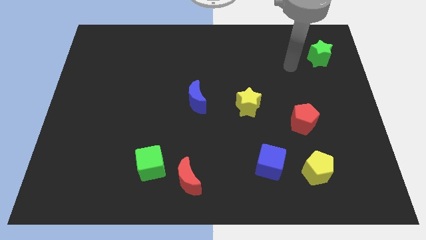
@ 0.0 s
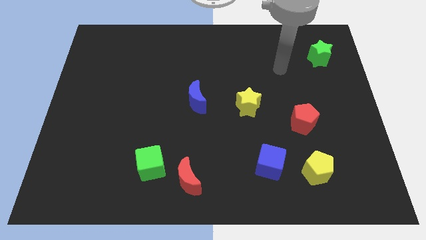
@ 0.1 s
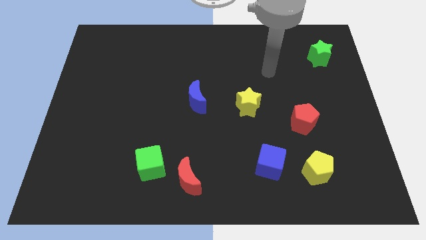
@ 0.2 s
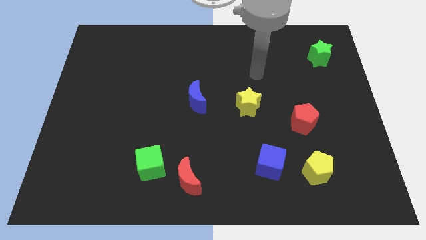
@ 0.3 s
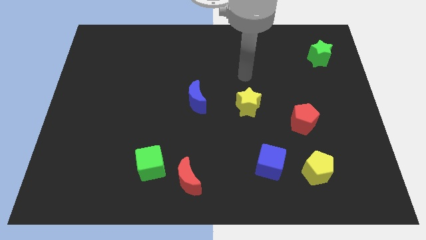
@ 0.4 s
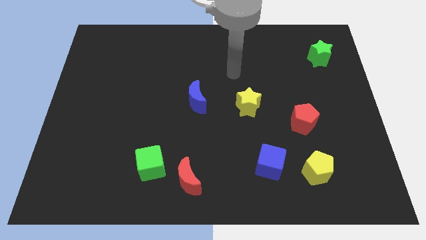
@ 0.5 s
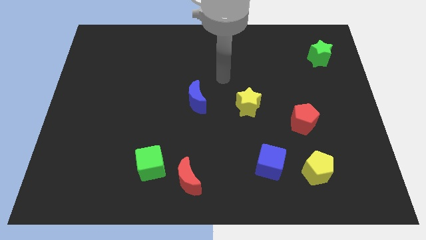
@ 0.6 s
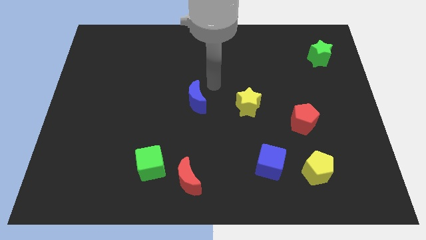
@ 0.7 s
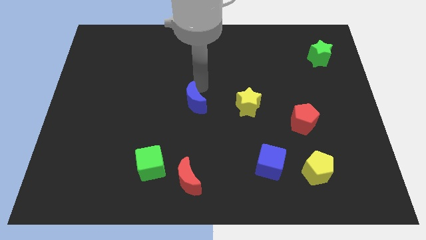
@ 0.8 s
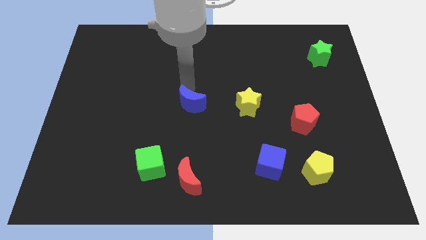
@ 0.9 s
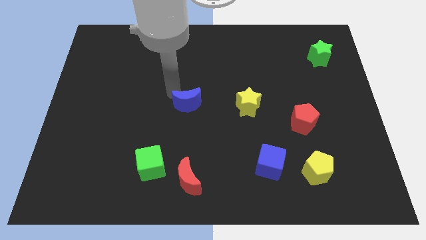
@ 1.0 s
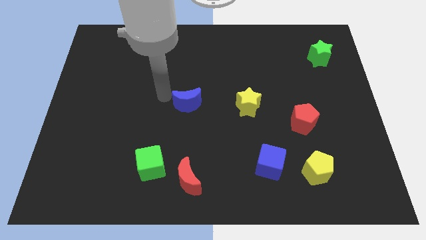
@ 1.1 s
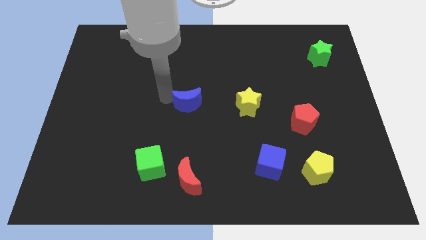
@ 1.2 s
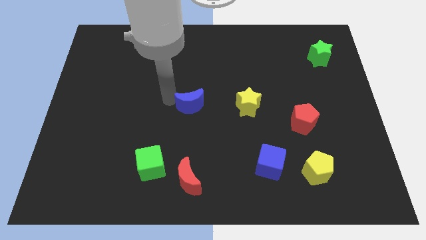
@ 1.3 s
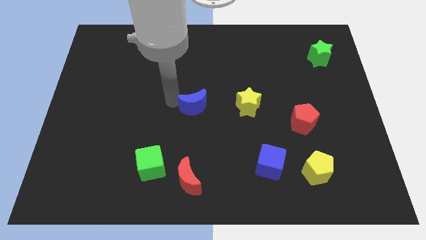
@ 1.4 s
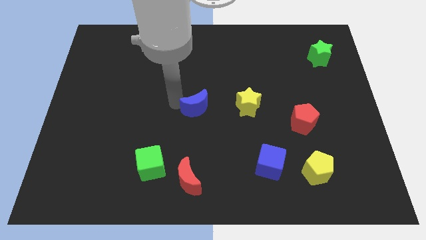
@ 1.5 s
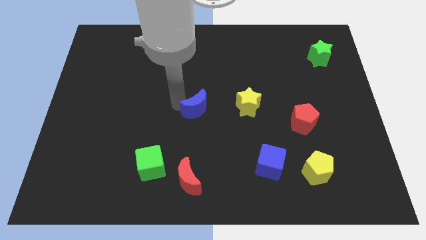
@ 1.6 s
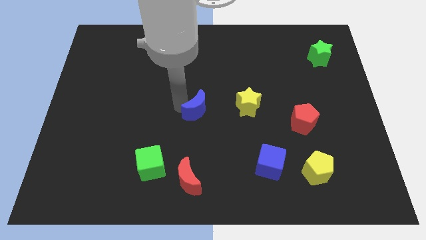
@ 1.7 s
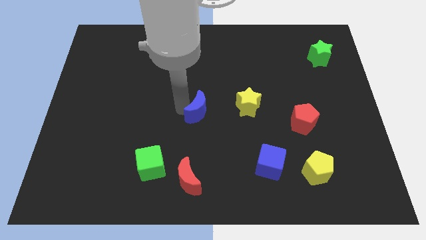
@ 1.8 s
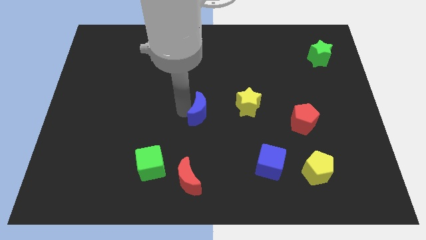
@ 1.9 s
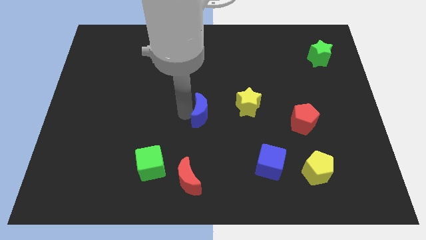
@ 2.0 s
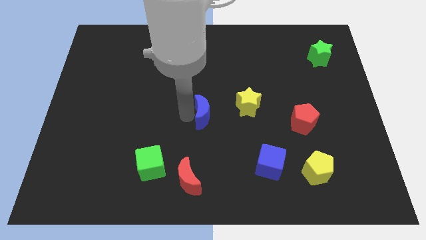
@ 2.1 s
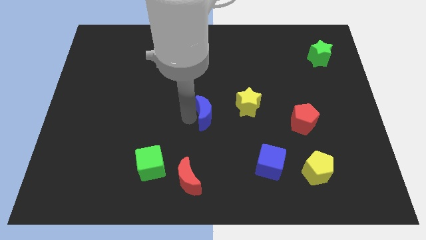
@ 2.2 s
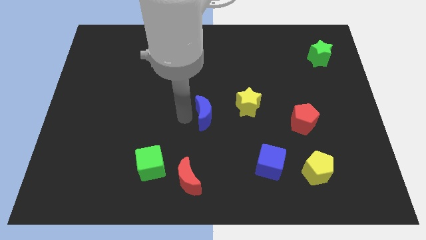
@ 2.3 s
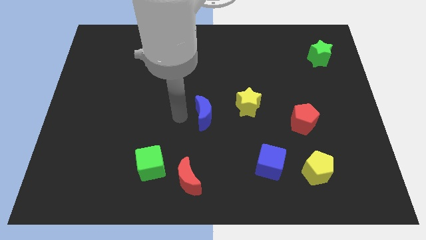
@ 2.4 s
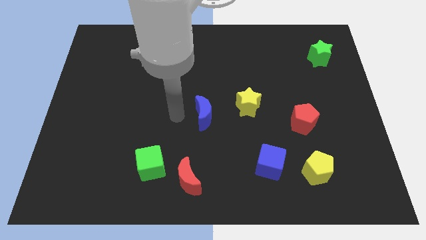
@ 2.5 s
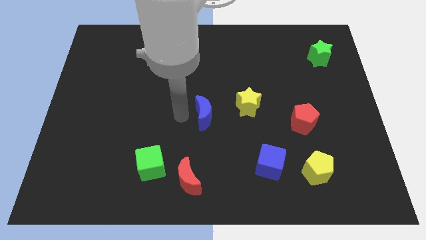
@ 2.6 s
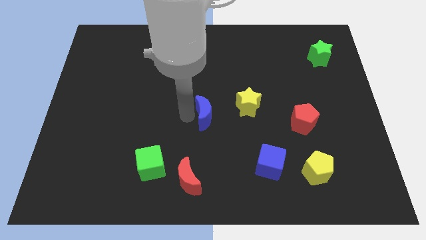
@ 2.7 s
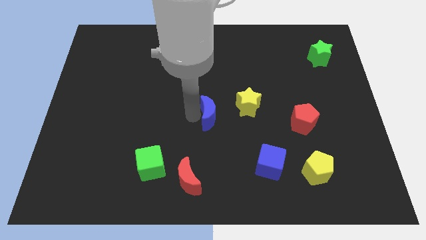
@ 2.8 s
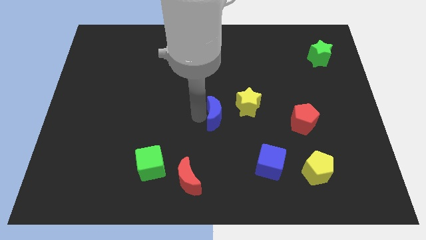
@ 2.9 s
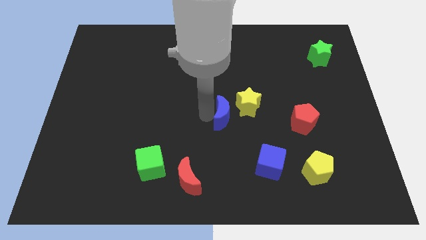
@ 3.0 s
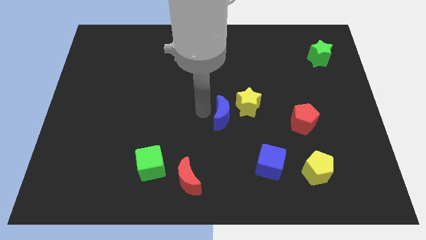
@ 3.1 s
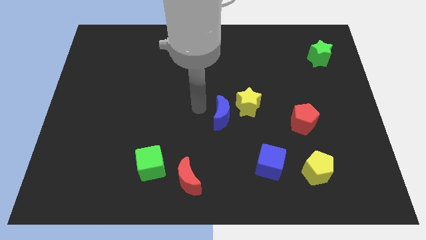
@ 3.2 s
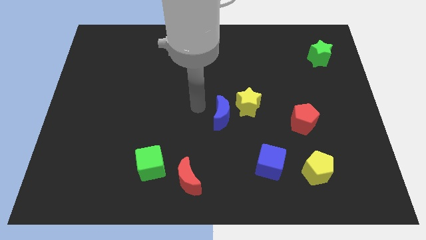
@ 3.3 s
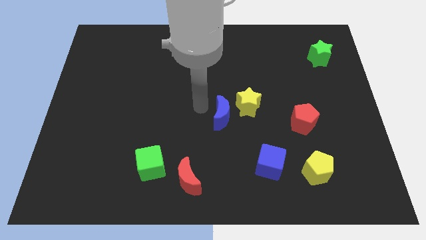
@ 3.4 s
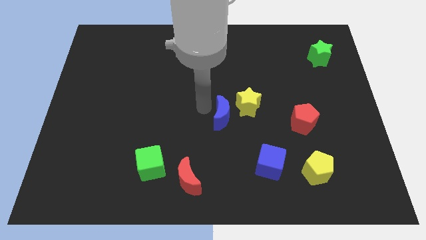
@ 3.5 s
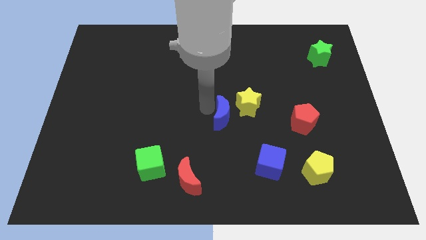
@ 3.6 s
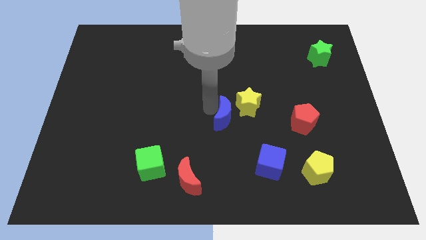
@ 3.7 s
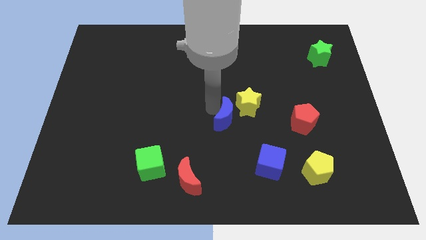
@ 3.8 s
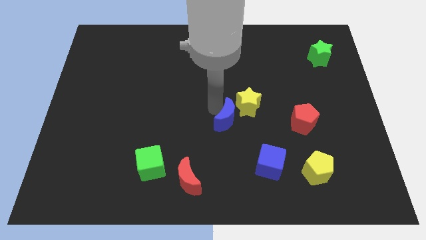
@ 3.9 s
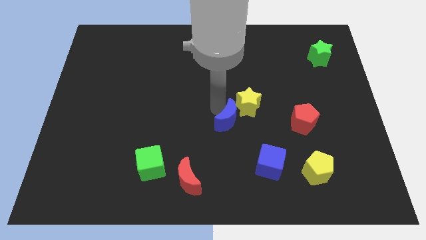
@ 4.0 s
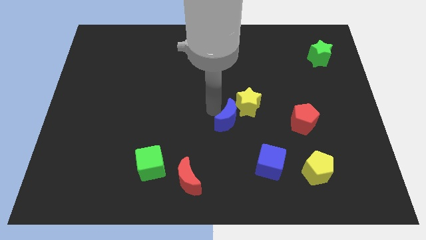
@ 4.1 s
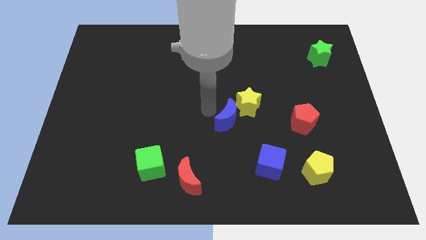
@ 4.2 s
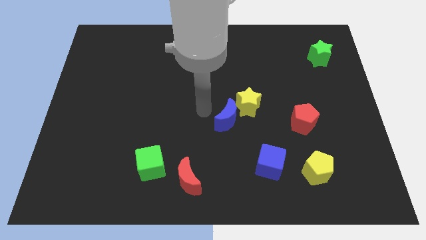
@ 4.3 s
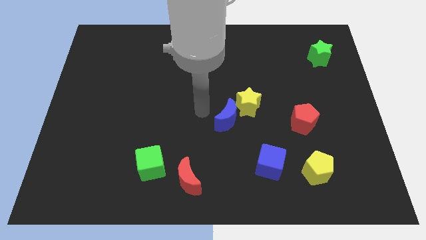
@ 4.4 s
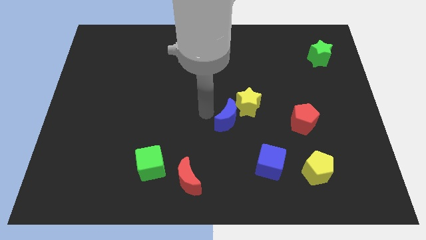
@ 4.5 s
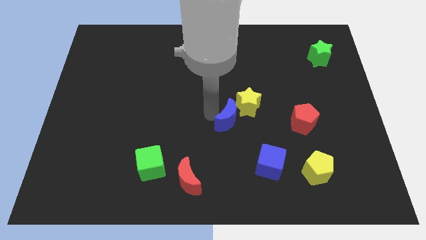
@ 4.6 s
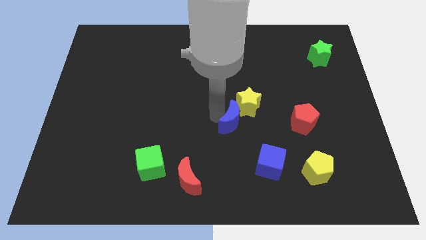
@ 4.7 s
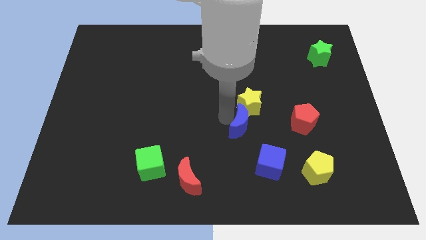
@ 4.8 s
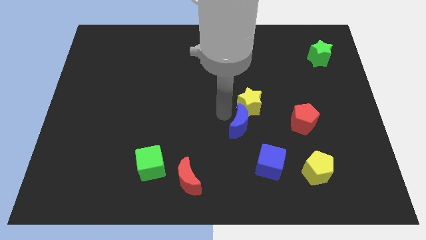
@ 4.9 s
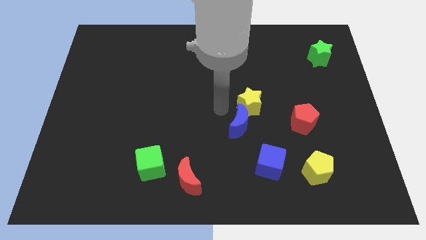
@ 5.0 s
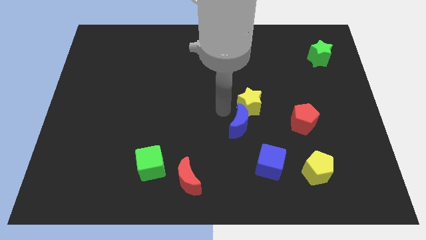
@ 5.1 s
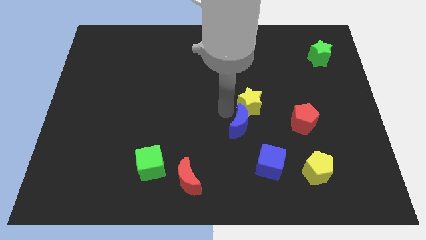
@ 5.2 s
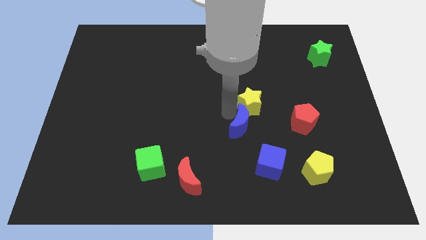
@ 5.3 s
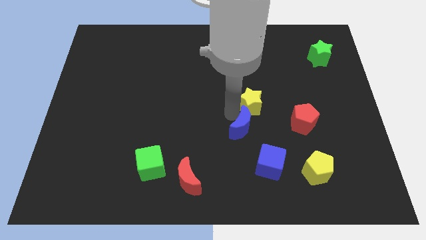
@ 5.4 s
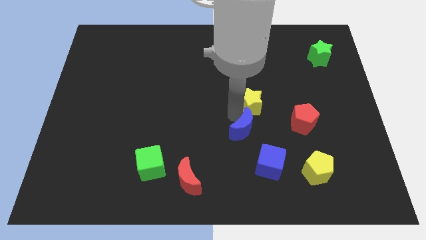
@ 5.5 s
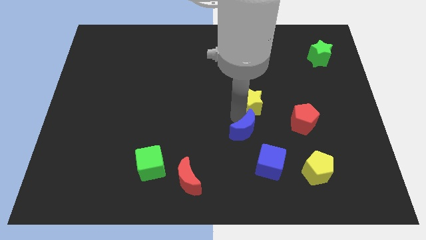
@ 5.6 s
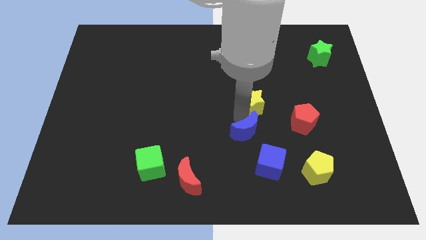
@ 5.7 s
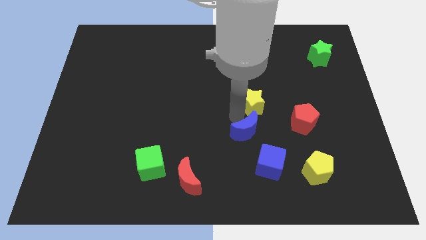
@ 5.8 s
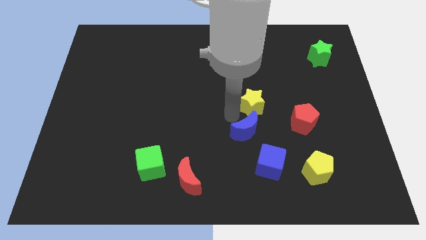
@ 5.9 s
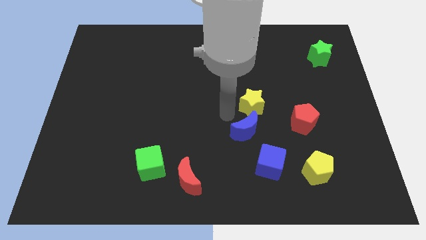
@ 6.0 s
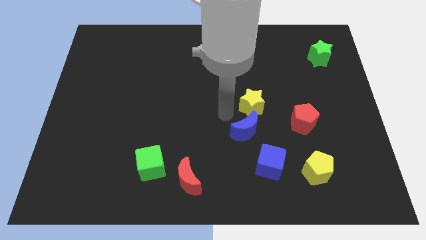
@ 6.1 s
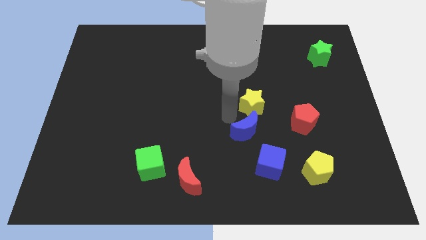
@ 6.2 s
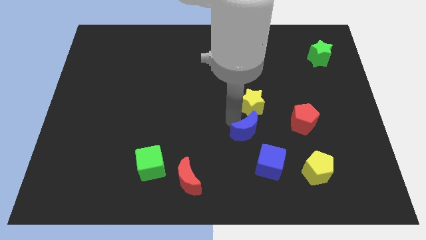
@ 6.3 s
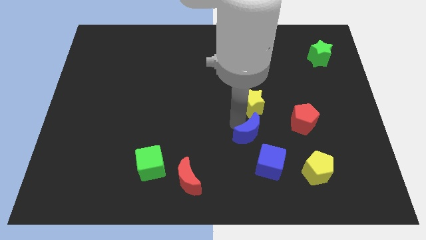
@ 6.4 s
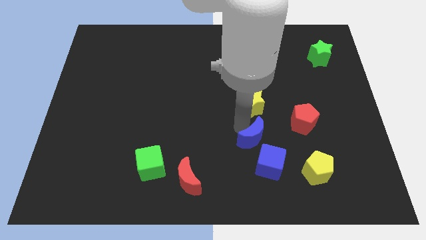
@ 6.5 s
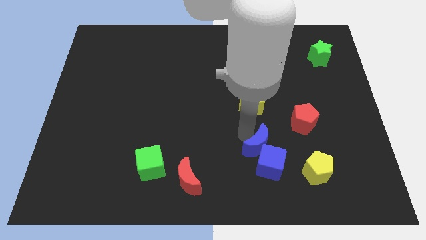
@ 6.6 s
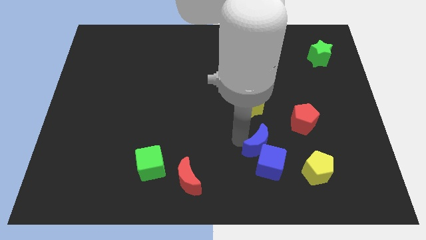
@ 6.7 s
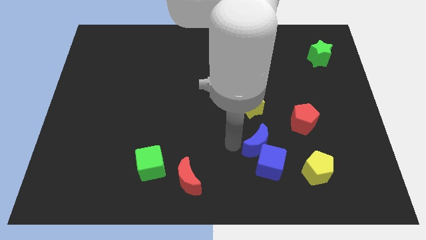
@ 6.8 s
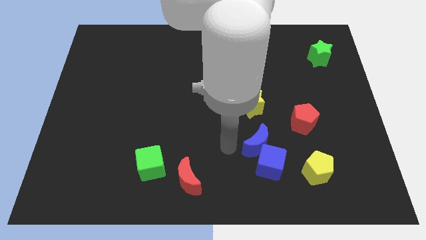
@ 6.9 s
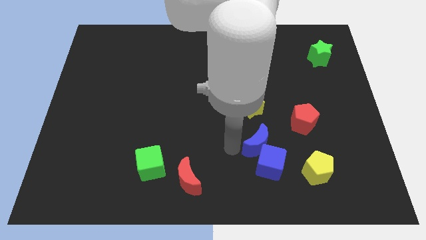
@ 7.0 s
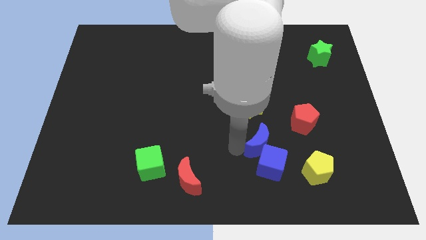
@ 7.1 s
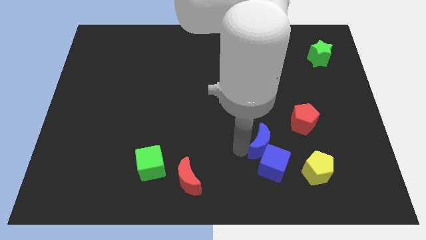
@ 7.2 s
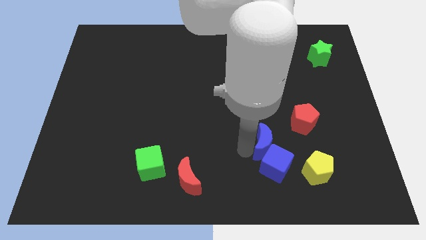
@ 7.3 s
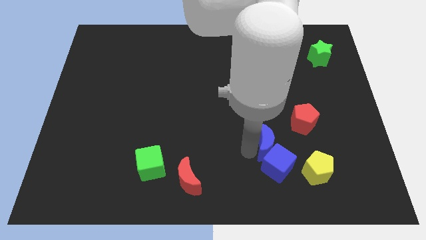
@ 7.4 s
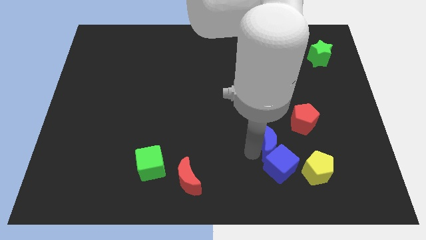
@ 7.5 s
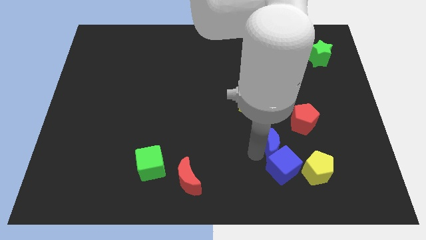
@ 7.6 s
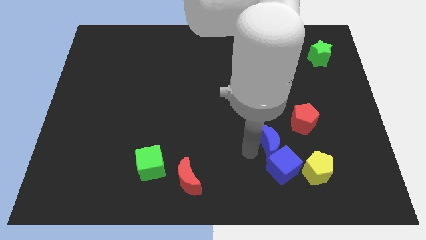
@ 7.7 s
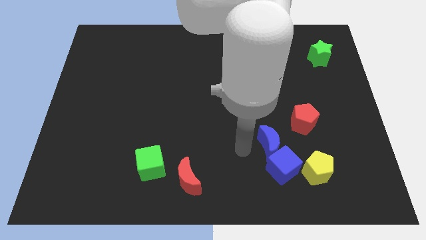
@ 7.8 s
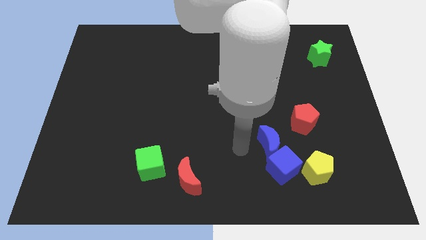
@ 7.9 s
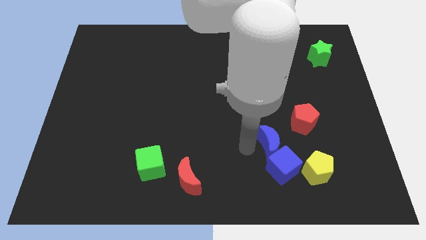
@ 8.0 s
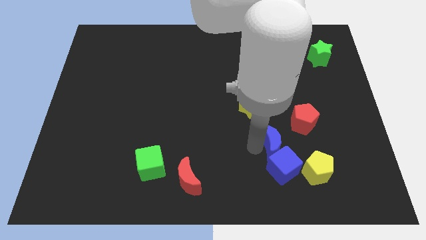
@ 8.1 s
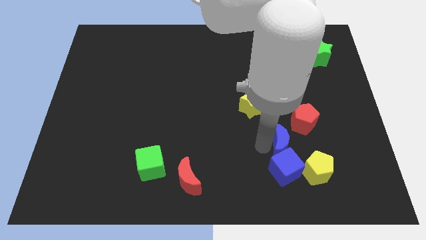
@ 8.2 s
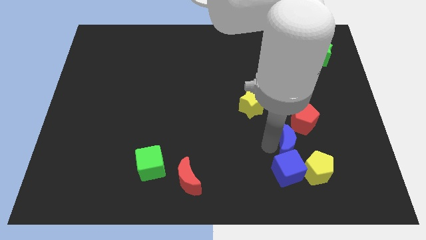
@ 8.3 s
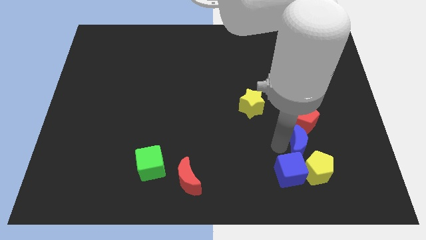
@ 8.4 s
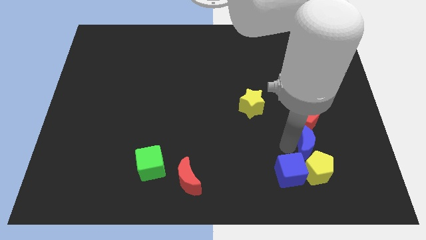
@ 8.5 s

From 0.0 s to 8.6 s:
slide the blue moon diagonally down and to the right of the red pentagon
